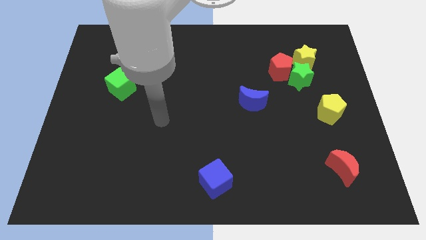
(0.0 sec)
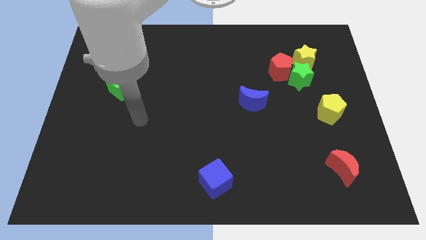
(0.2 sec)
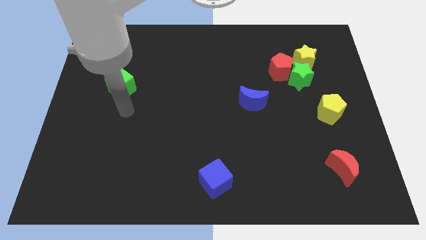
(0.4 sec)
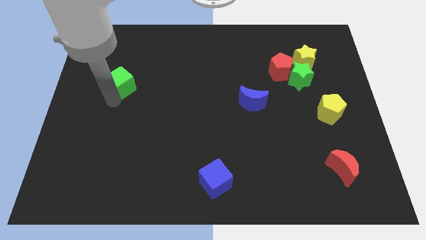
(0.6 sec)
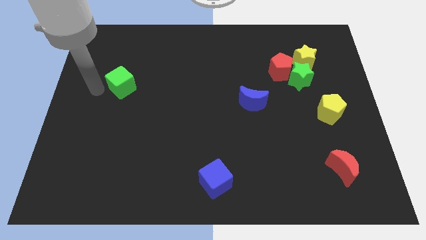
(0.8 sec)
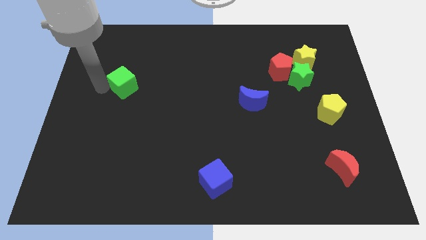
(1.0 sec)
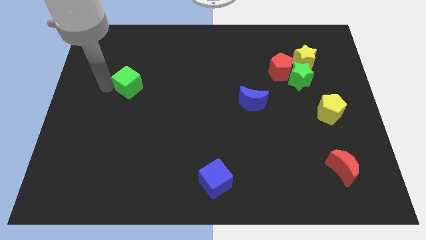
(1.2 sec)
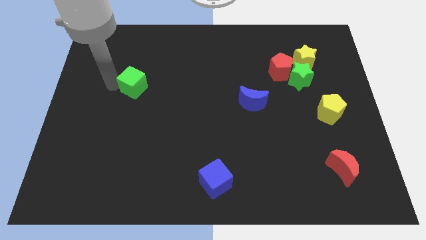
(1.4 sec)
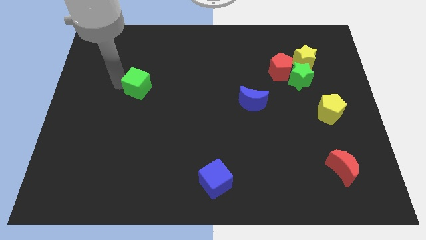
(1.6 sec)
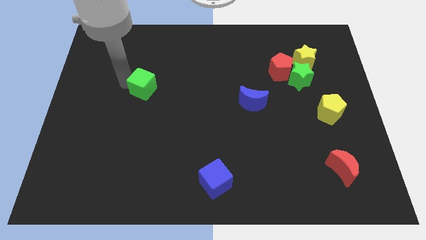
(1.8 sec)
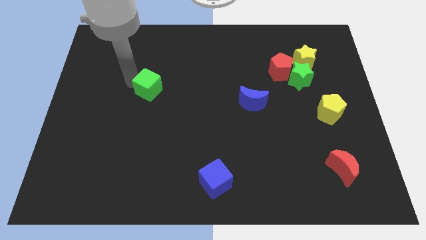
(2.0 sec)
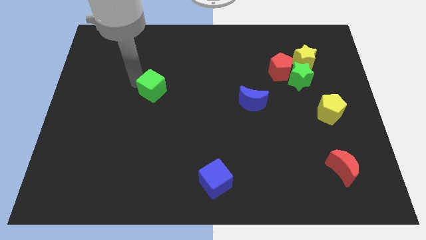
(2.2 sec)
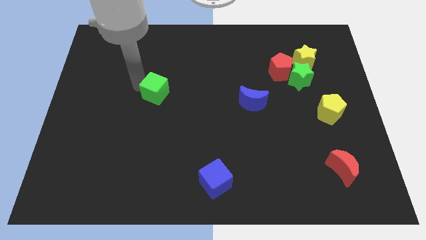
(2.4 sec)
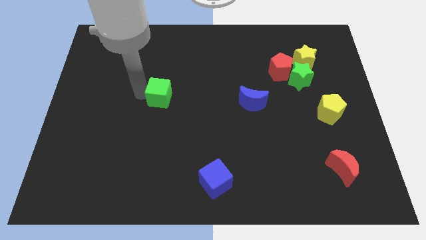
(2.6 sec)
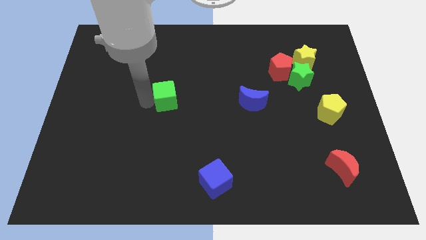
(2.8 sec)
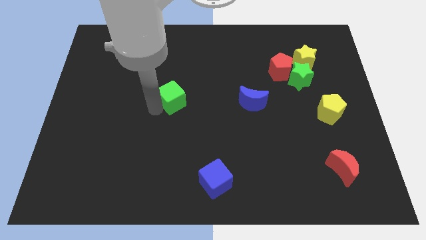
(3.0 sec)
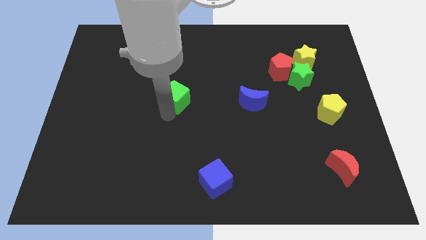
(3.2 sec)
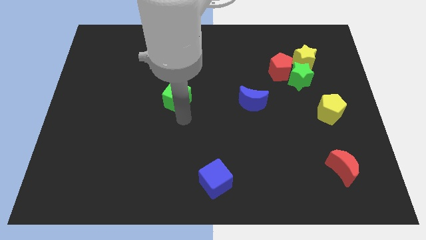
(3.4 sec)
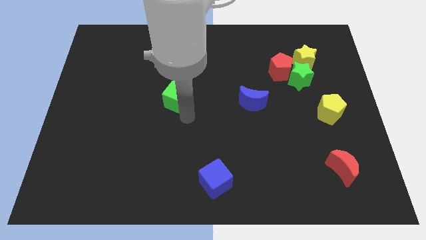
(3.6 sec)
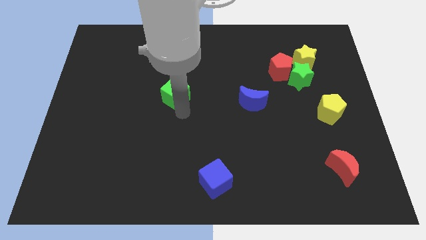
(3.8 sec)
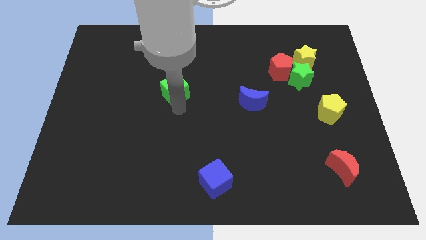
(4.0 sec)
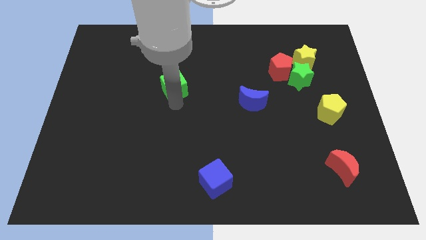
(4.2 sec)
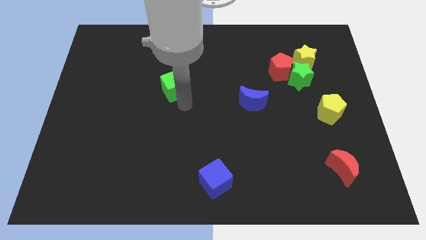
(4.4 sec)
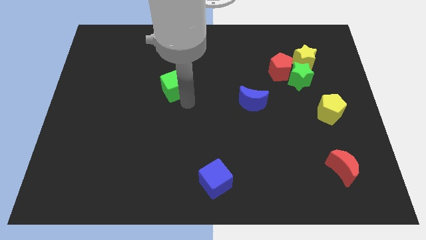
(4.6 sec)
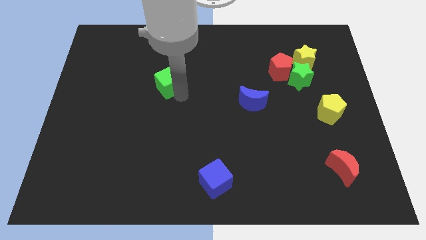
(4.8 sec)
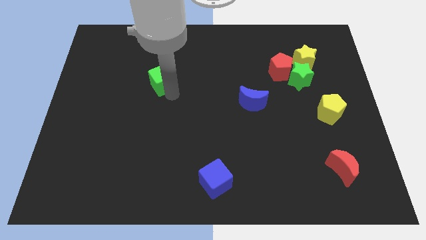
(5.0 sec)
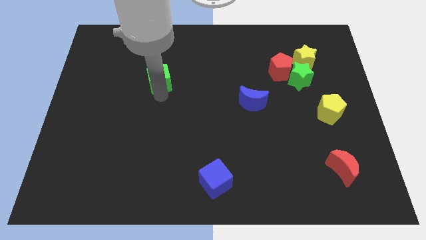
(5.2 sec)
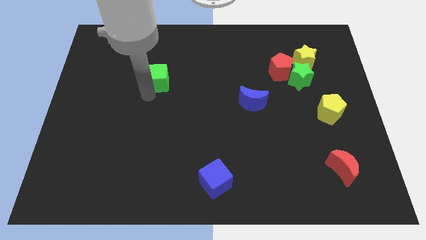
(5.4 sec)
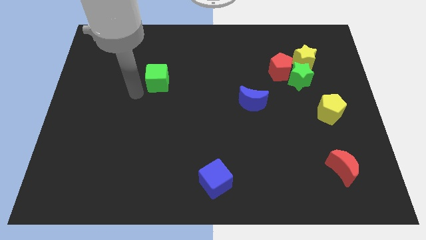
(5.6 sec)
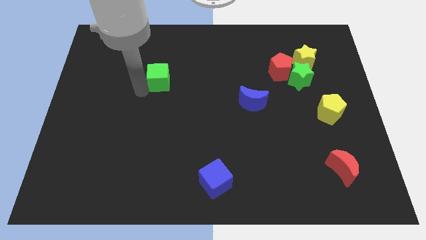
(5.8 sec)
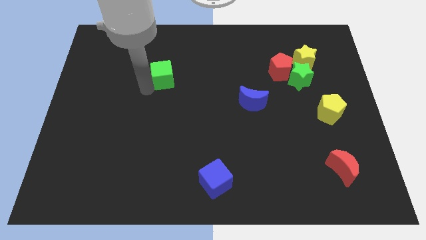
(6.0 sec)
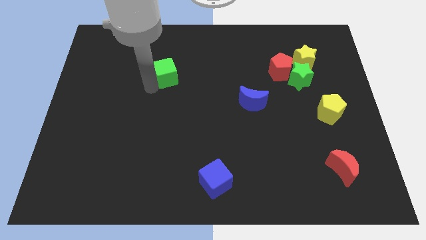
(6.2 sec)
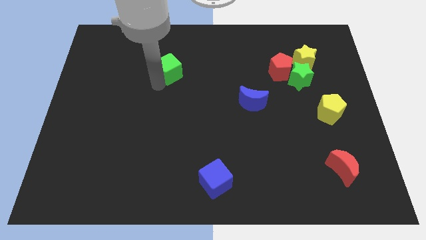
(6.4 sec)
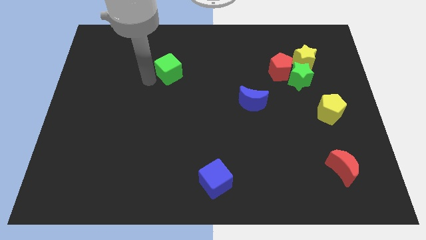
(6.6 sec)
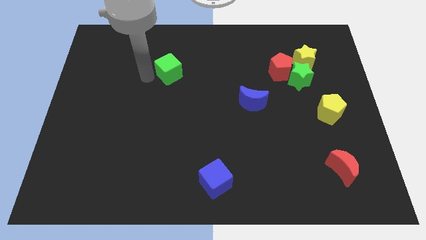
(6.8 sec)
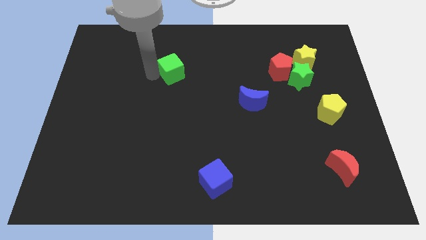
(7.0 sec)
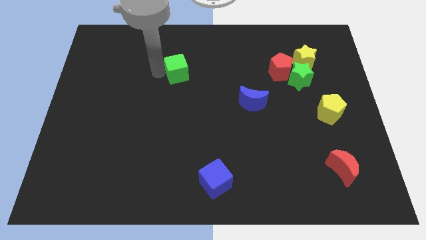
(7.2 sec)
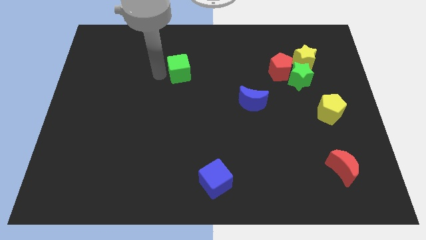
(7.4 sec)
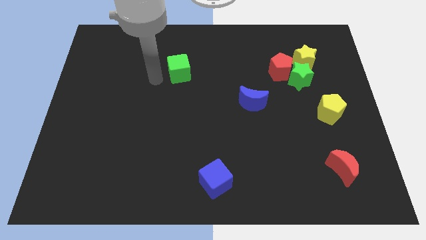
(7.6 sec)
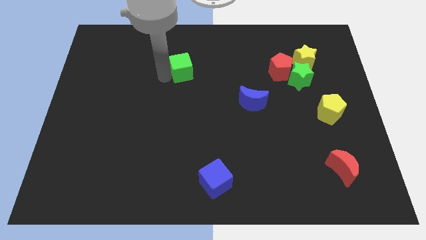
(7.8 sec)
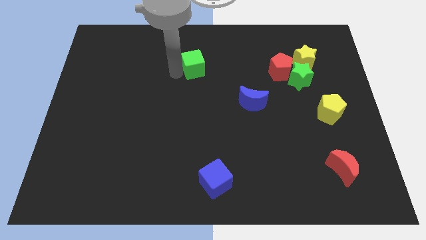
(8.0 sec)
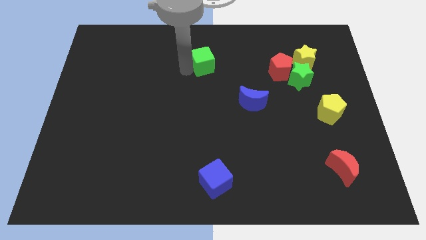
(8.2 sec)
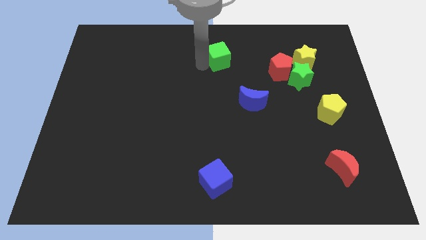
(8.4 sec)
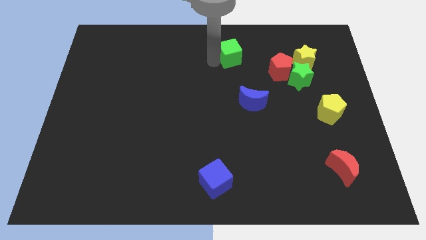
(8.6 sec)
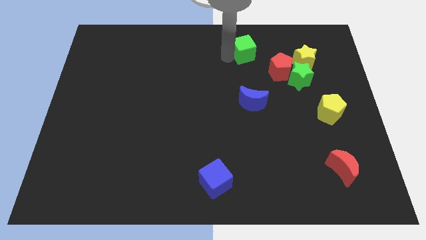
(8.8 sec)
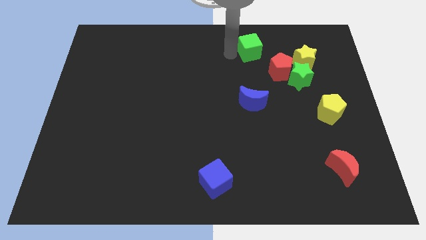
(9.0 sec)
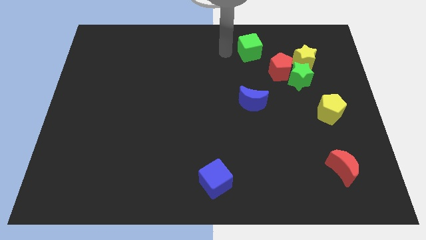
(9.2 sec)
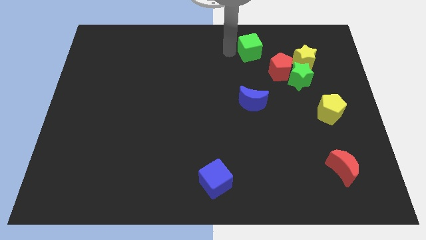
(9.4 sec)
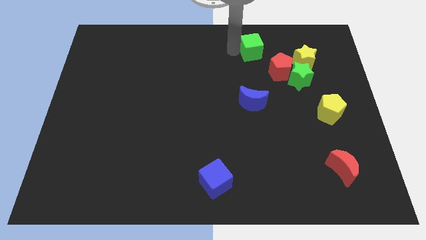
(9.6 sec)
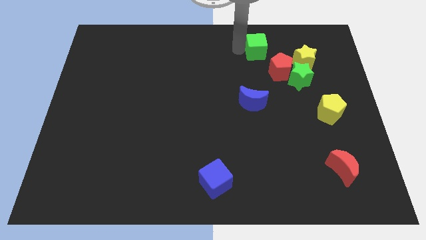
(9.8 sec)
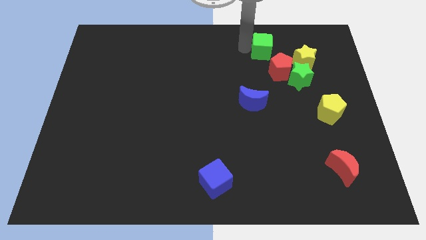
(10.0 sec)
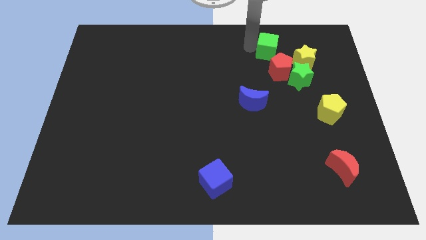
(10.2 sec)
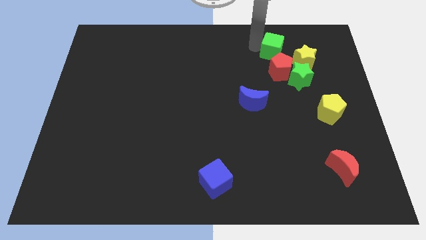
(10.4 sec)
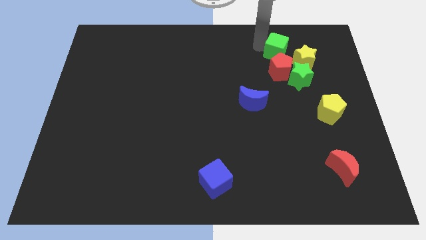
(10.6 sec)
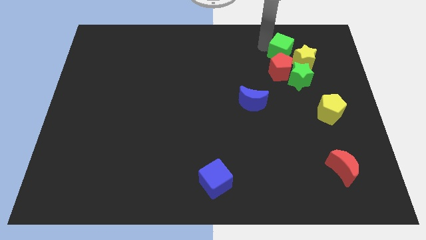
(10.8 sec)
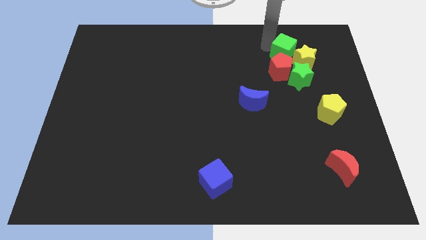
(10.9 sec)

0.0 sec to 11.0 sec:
slide the green cube next to the yellow star

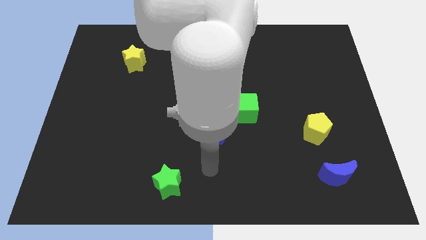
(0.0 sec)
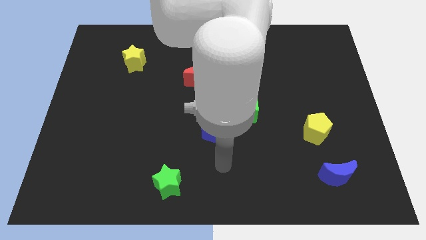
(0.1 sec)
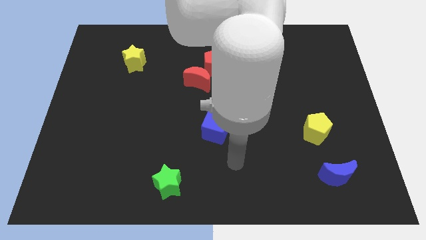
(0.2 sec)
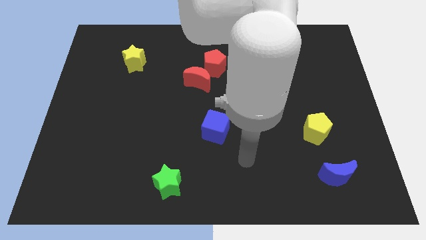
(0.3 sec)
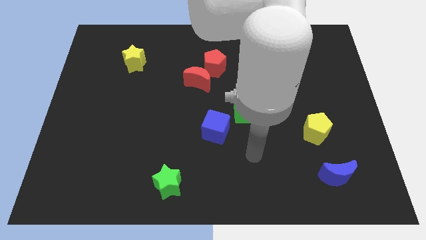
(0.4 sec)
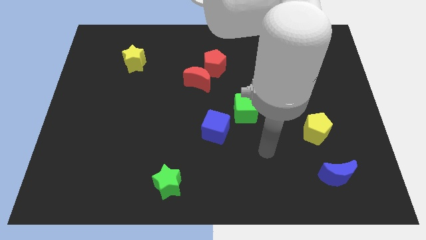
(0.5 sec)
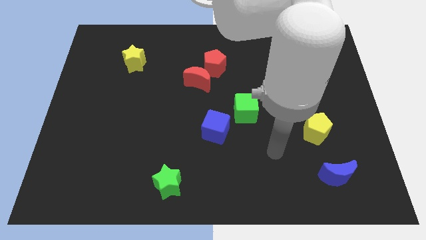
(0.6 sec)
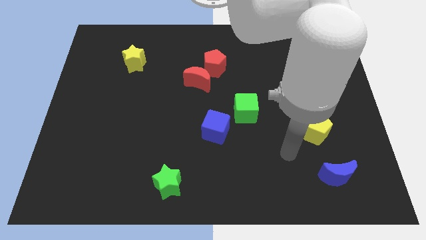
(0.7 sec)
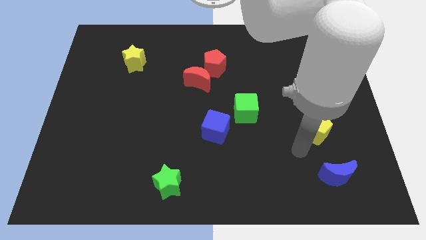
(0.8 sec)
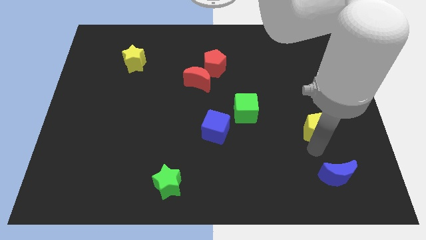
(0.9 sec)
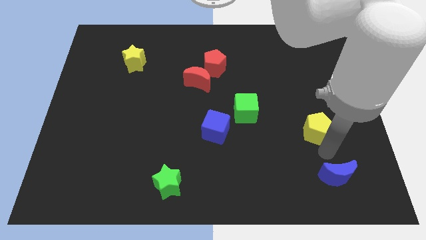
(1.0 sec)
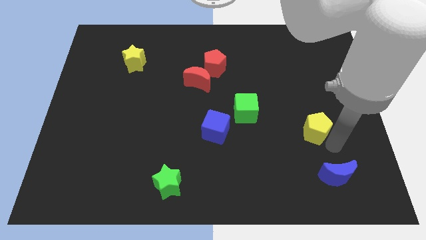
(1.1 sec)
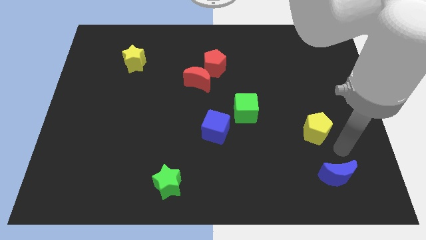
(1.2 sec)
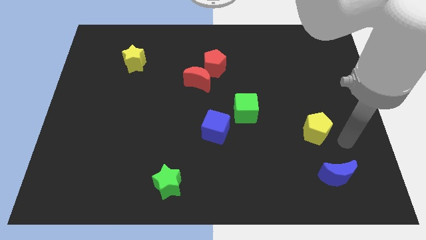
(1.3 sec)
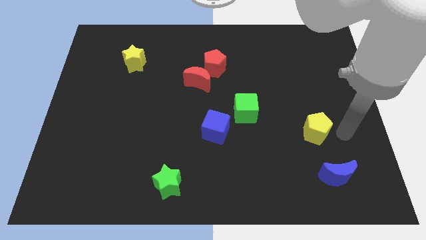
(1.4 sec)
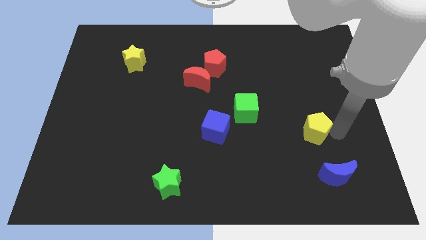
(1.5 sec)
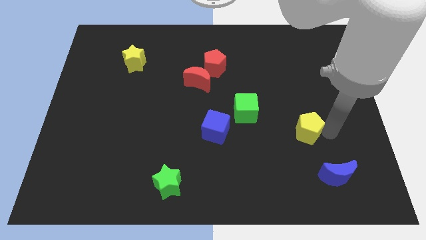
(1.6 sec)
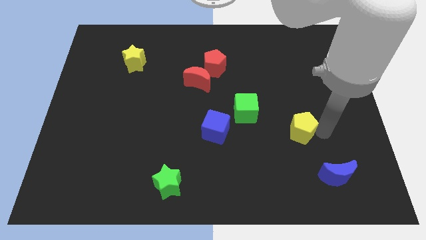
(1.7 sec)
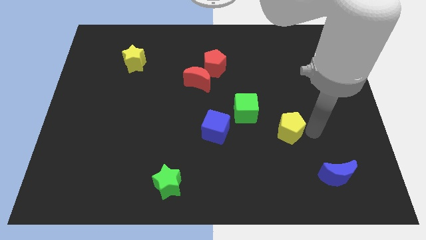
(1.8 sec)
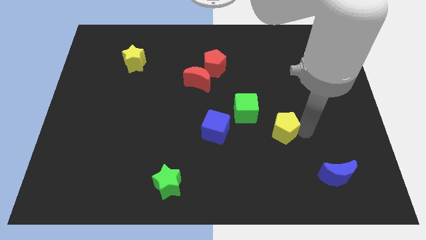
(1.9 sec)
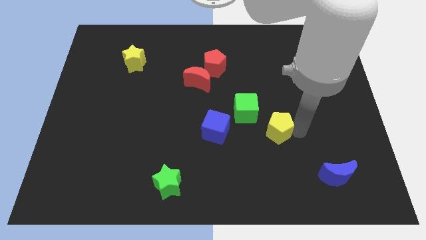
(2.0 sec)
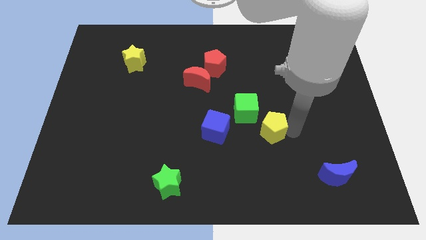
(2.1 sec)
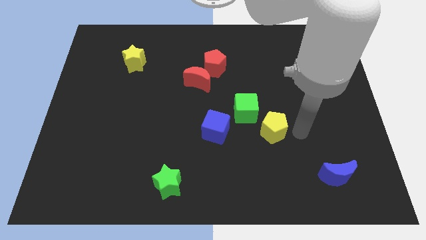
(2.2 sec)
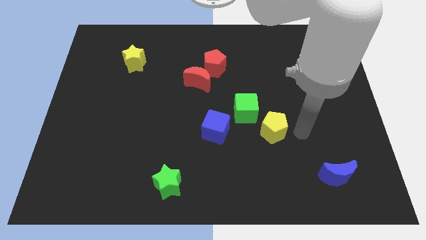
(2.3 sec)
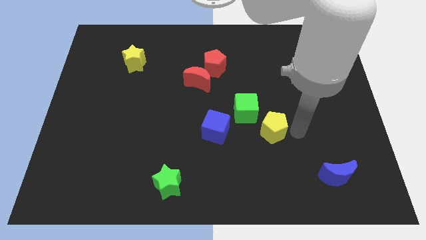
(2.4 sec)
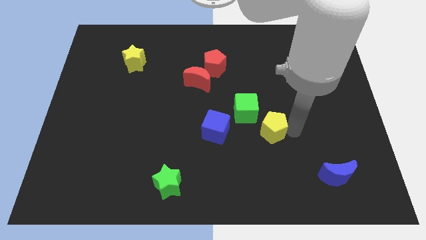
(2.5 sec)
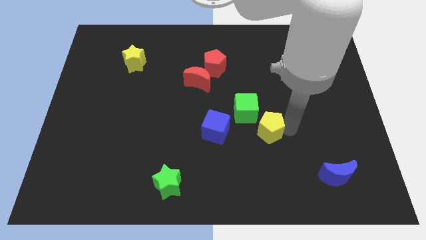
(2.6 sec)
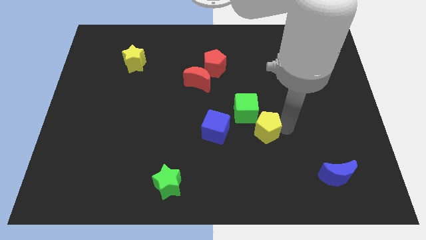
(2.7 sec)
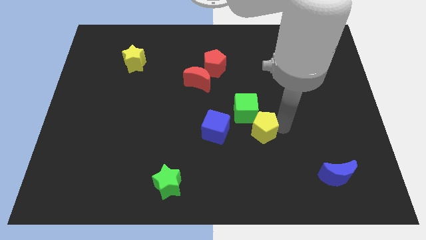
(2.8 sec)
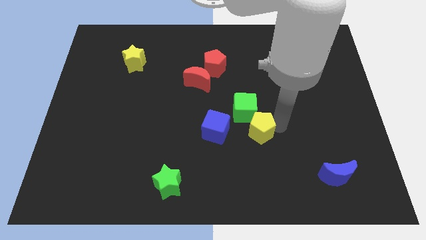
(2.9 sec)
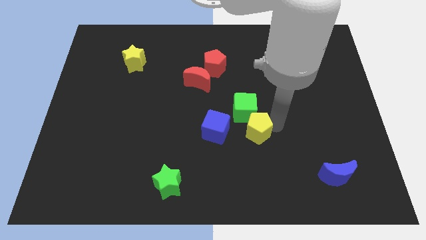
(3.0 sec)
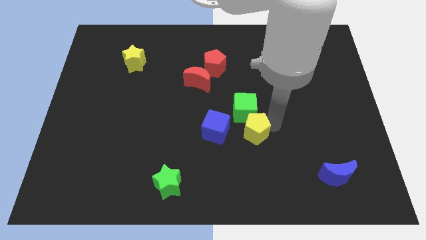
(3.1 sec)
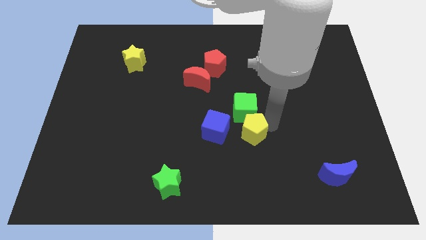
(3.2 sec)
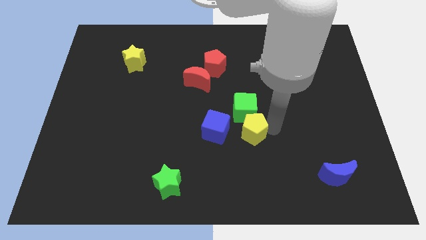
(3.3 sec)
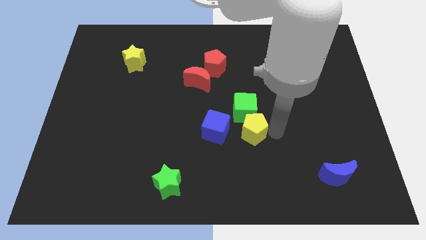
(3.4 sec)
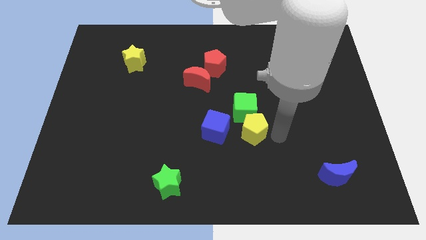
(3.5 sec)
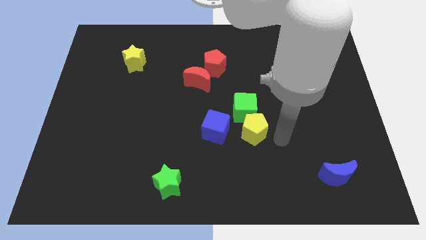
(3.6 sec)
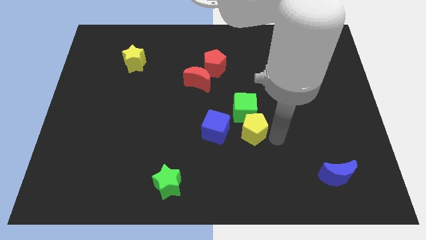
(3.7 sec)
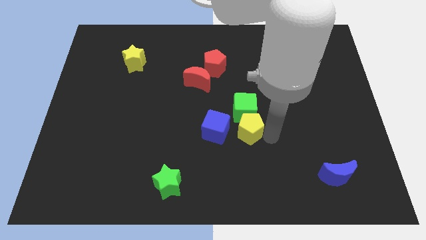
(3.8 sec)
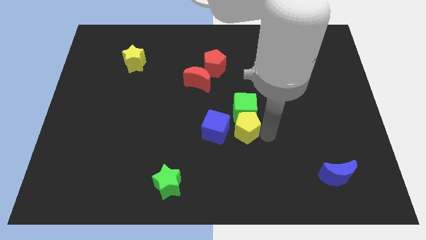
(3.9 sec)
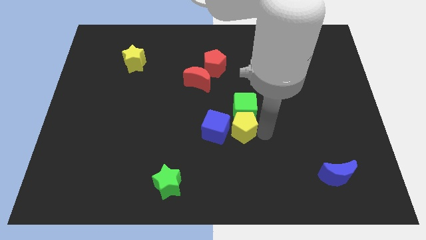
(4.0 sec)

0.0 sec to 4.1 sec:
put the yellow pentagon to the blue cube
